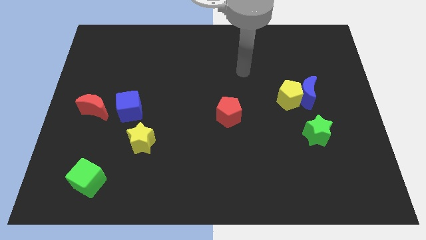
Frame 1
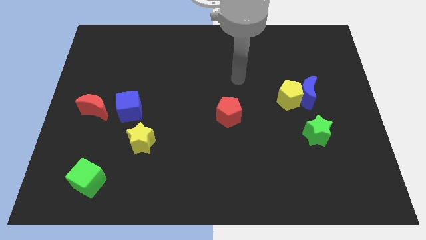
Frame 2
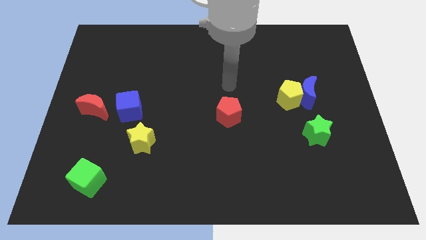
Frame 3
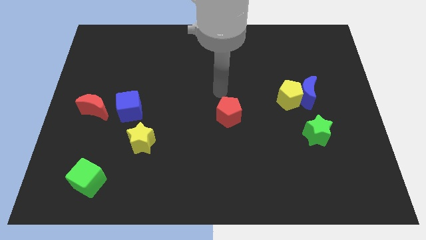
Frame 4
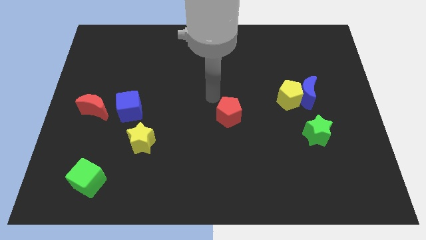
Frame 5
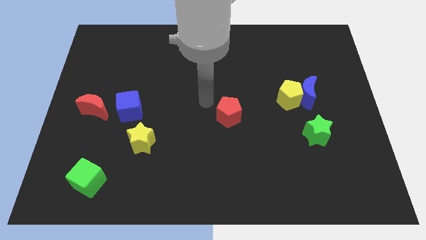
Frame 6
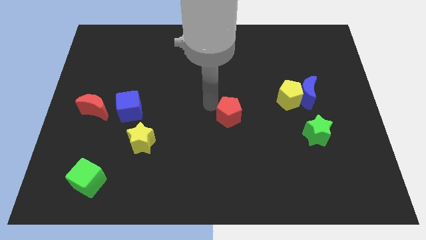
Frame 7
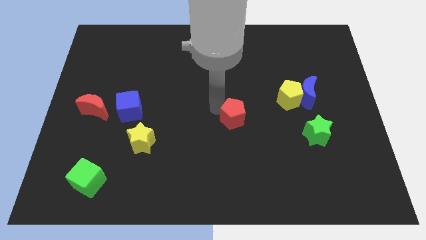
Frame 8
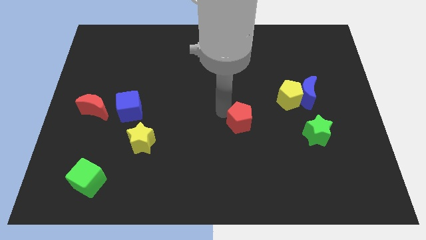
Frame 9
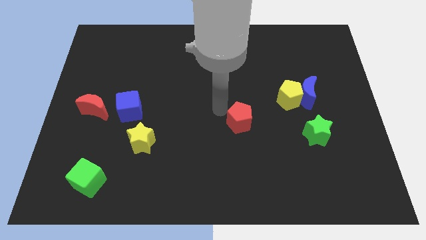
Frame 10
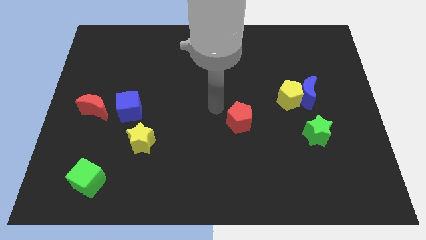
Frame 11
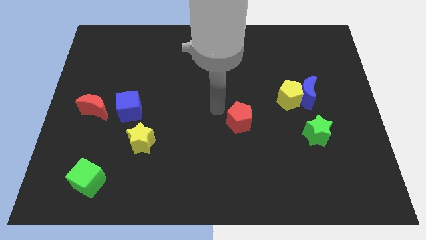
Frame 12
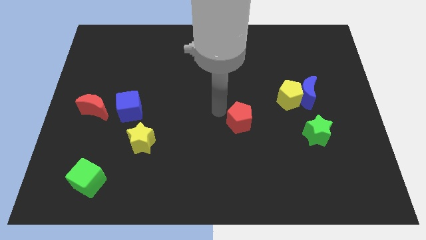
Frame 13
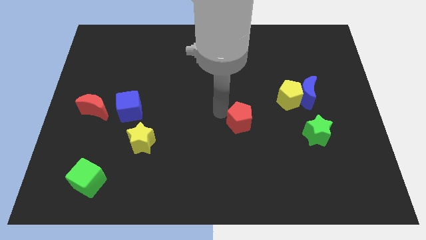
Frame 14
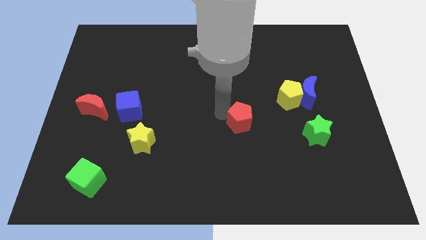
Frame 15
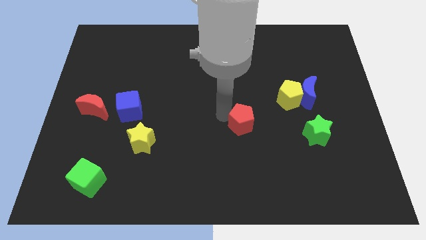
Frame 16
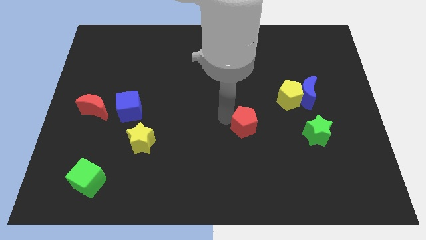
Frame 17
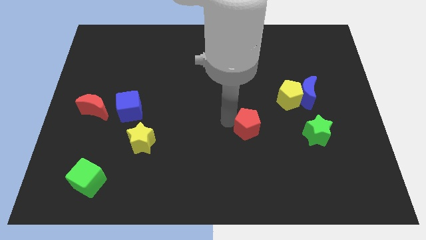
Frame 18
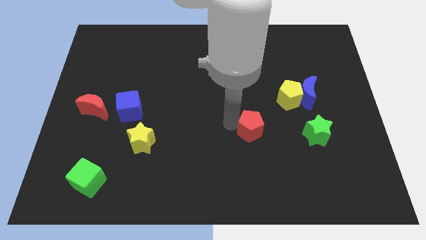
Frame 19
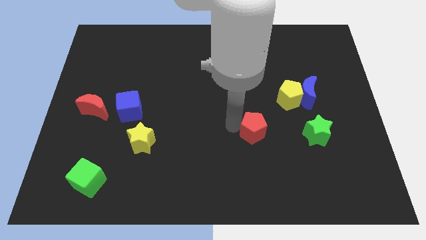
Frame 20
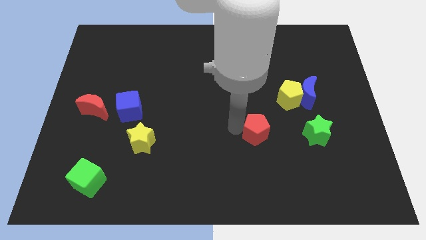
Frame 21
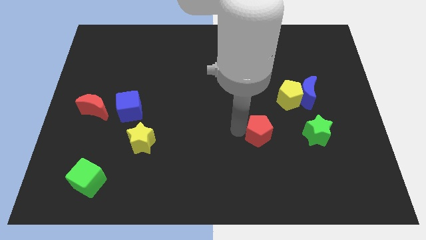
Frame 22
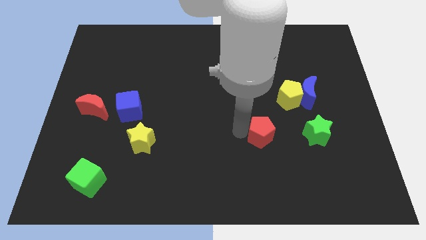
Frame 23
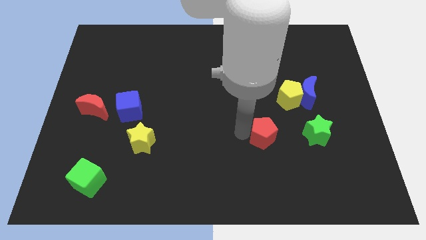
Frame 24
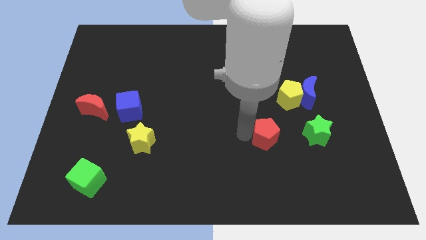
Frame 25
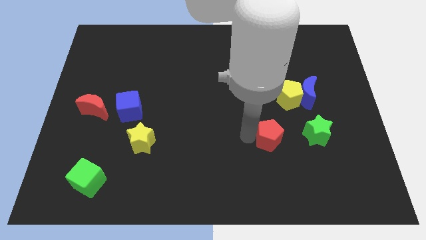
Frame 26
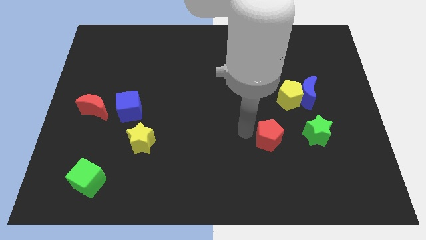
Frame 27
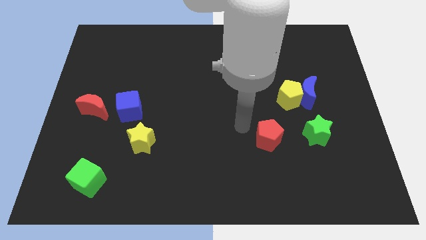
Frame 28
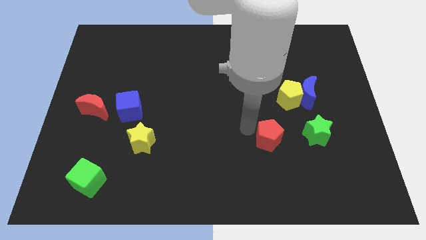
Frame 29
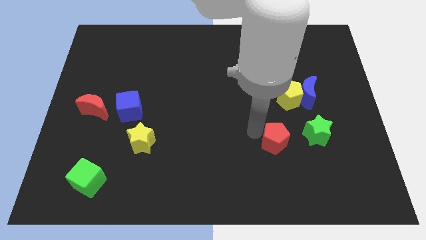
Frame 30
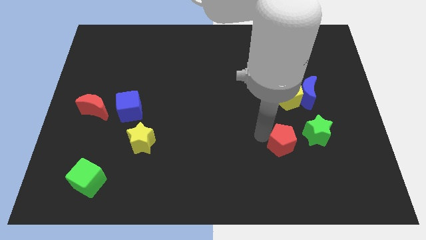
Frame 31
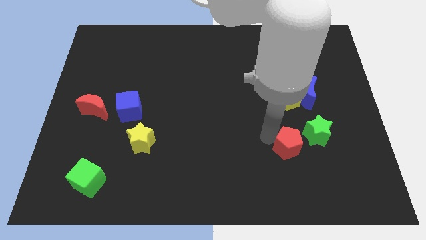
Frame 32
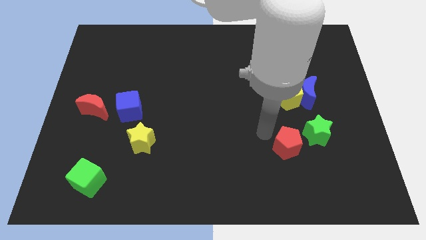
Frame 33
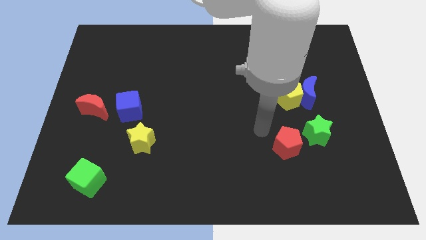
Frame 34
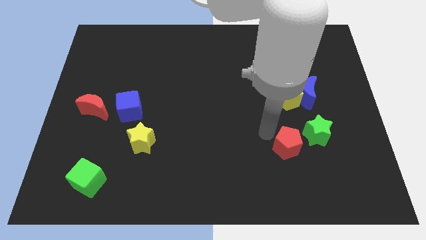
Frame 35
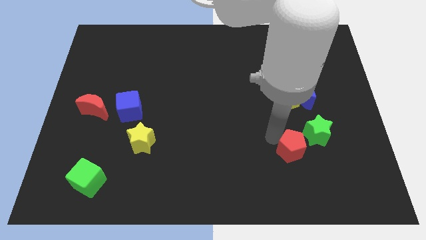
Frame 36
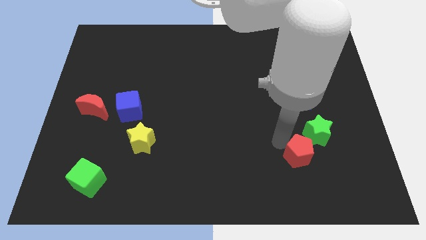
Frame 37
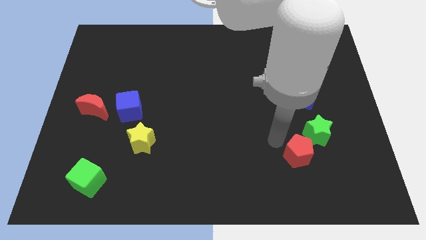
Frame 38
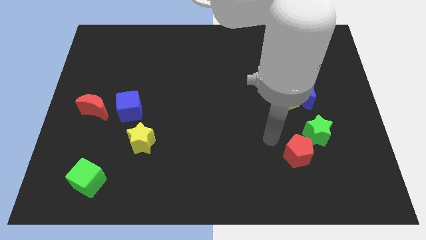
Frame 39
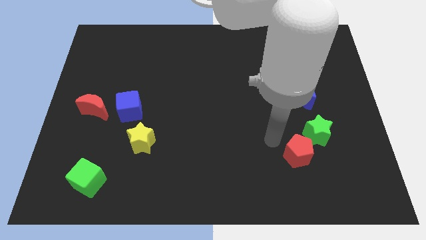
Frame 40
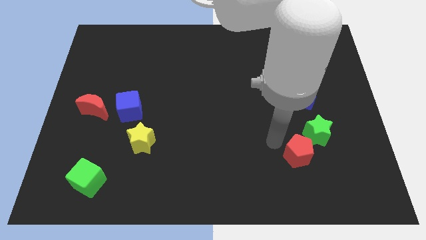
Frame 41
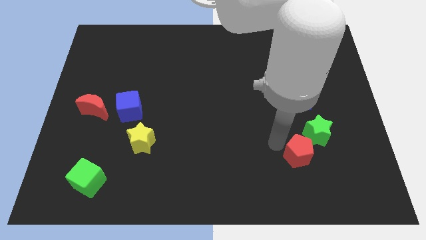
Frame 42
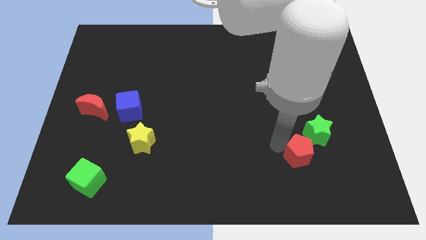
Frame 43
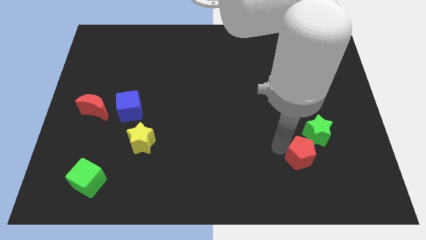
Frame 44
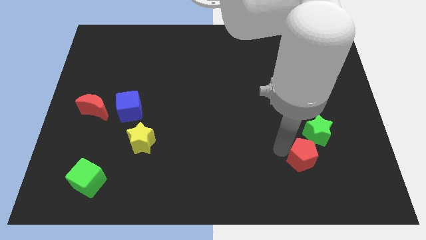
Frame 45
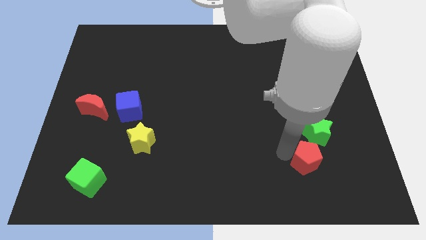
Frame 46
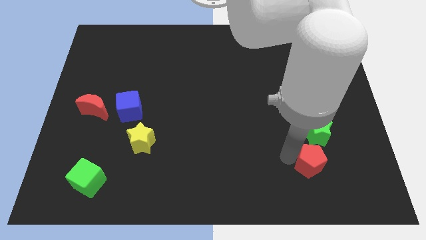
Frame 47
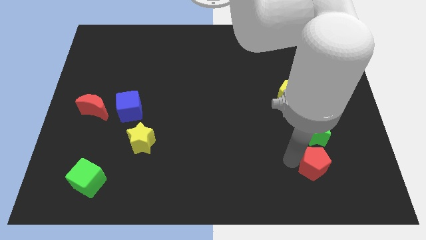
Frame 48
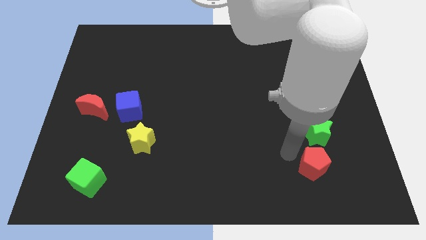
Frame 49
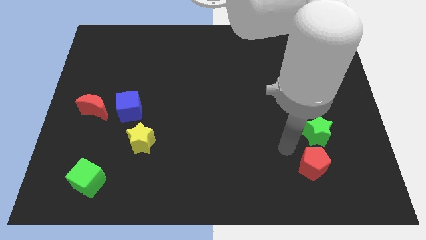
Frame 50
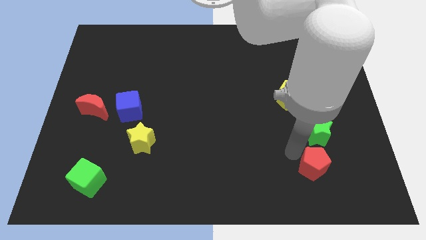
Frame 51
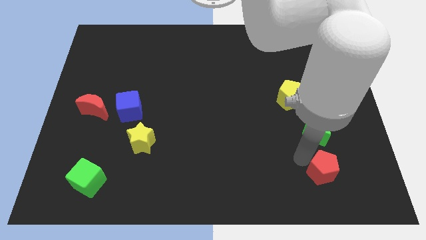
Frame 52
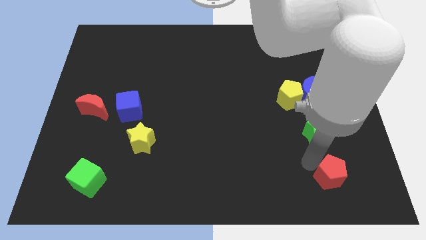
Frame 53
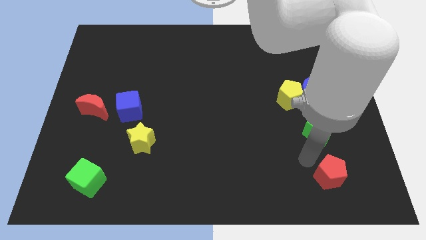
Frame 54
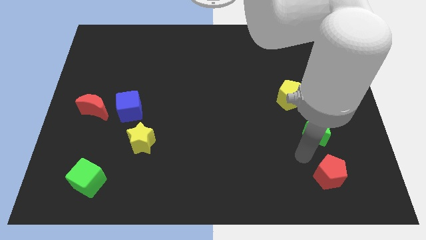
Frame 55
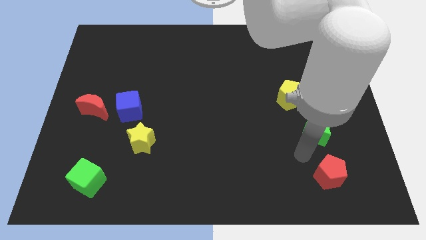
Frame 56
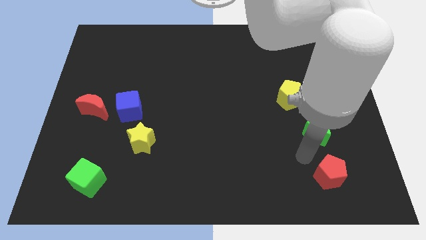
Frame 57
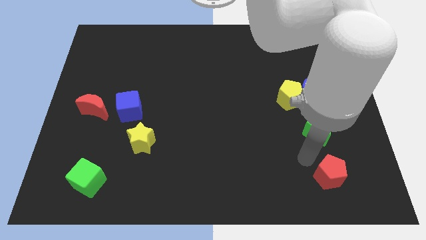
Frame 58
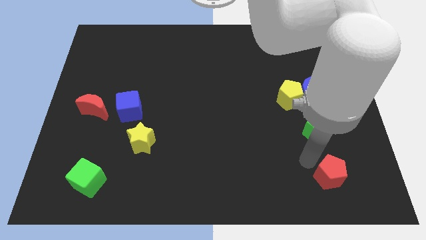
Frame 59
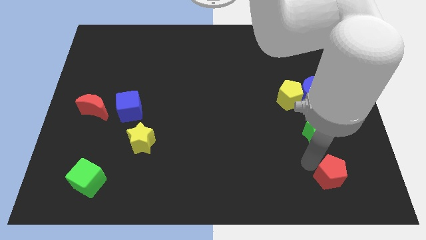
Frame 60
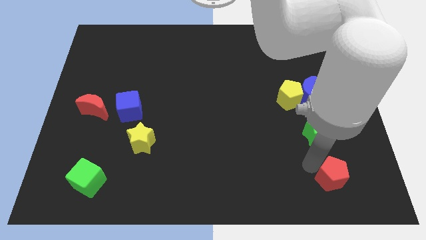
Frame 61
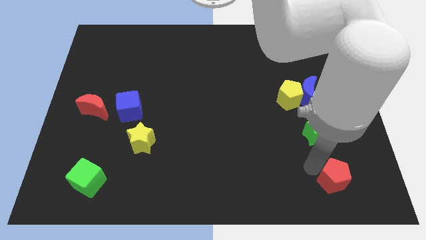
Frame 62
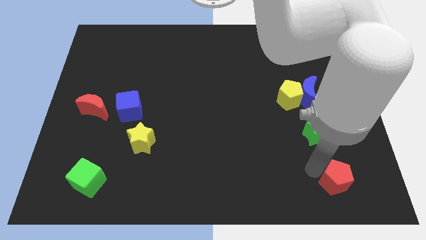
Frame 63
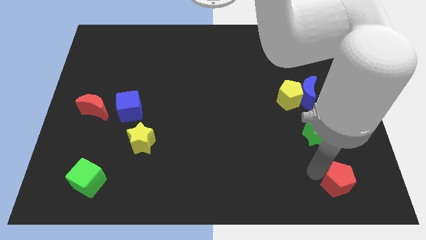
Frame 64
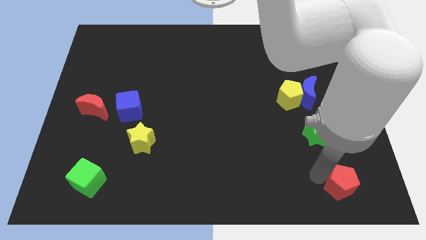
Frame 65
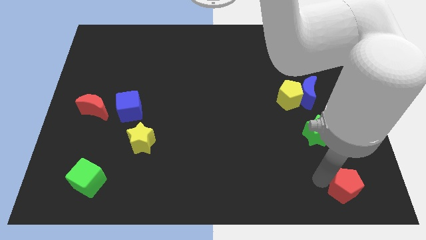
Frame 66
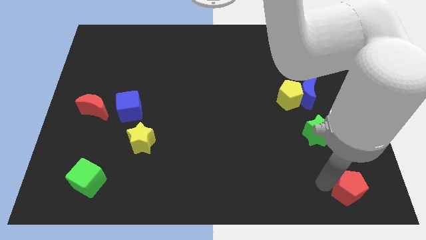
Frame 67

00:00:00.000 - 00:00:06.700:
slide the red pentagon to the lower right corner

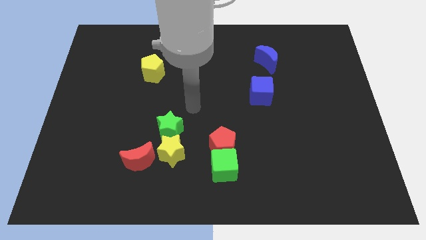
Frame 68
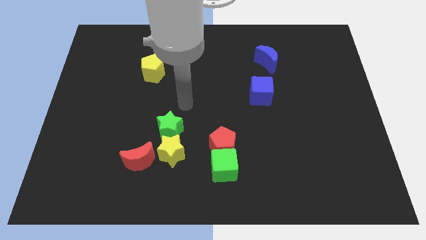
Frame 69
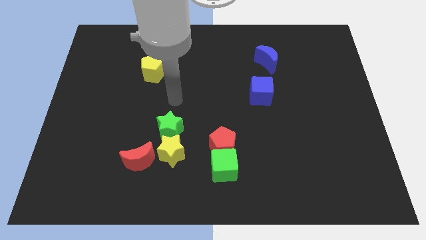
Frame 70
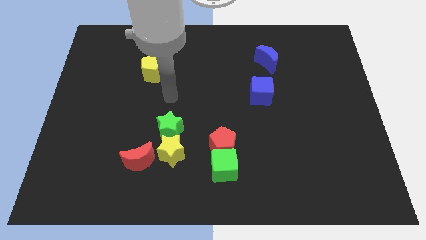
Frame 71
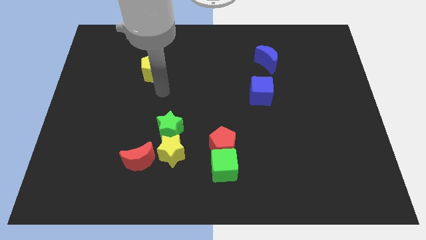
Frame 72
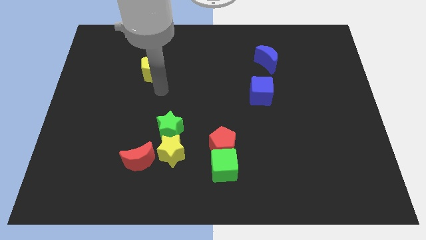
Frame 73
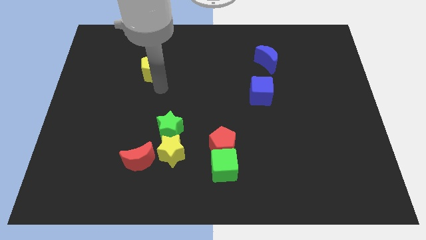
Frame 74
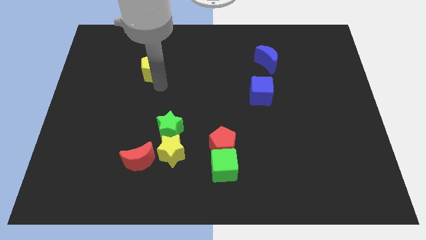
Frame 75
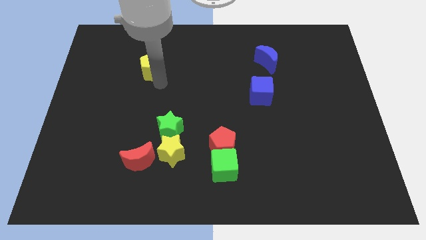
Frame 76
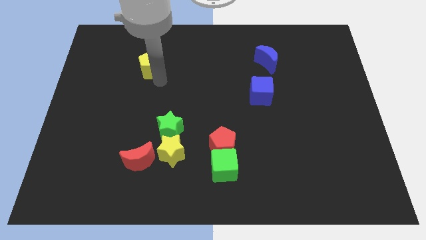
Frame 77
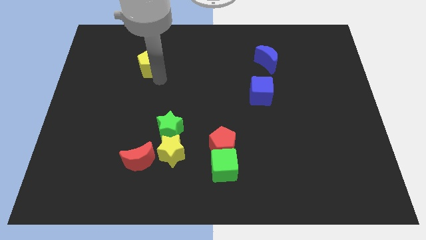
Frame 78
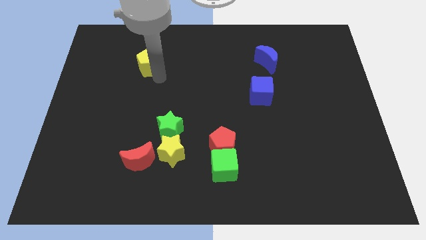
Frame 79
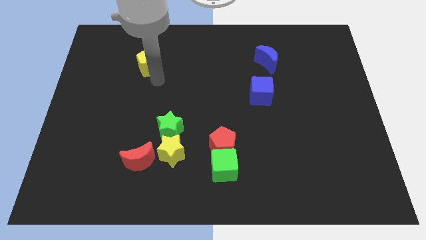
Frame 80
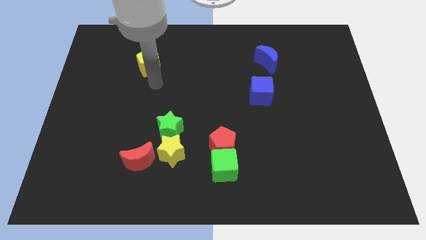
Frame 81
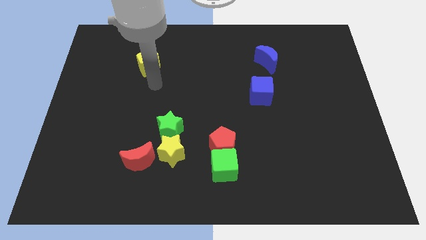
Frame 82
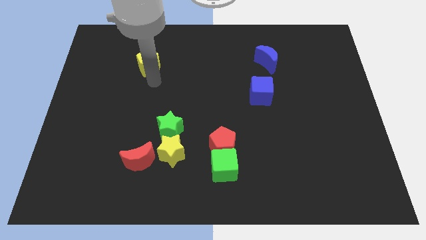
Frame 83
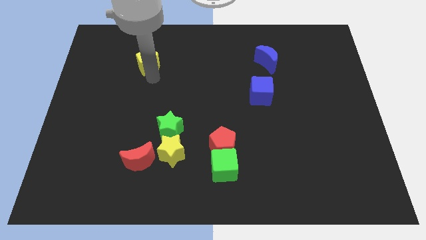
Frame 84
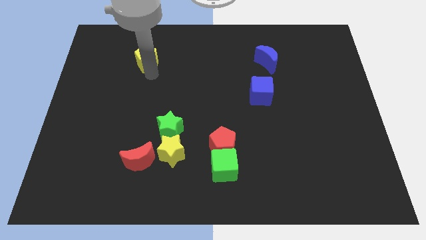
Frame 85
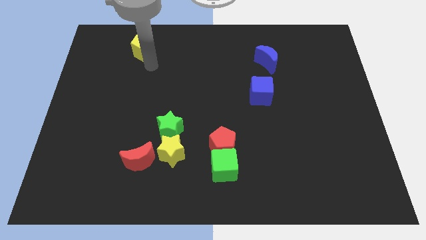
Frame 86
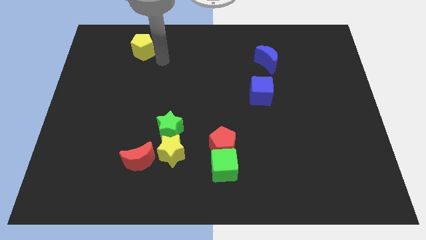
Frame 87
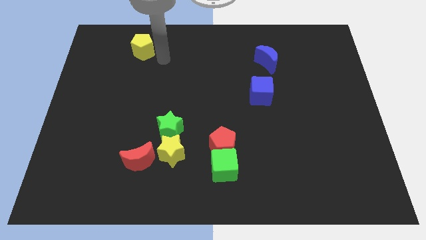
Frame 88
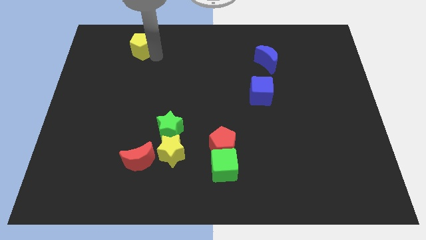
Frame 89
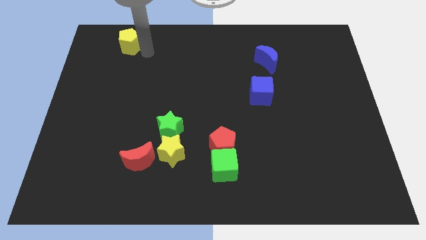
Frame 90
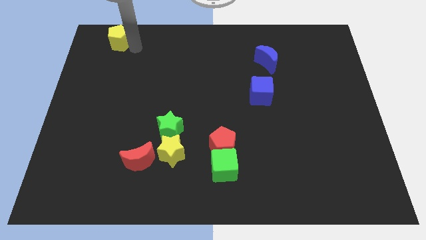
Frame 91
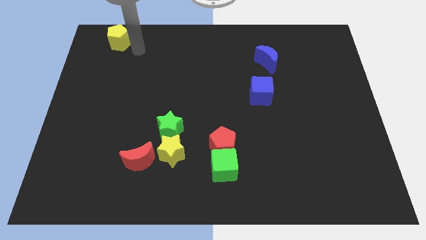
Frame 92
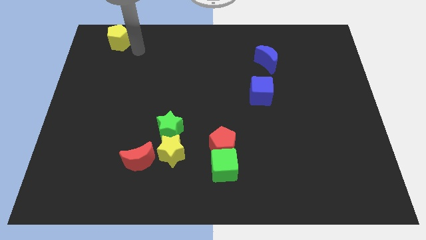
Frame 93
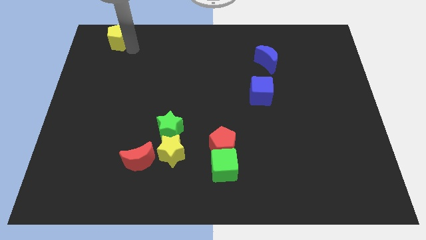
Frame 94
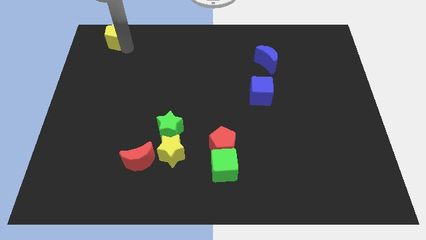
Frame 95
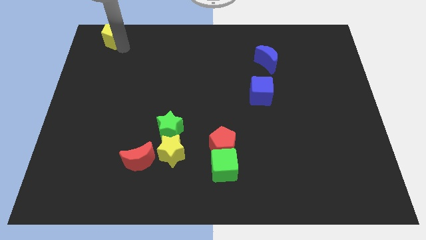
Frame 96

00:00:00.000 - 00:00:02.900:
put the yellow pentagon to the top left of the board
